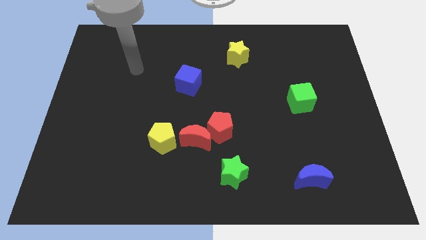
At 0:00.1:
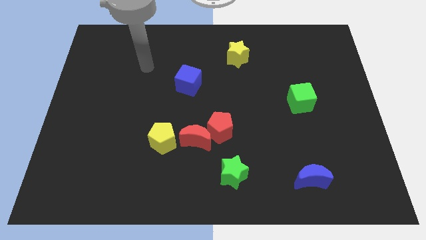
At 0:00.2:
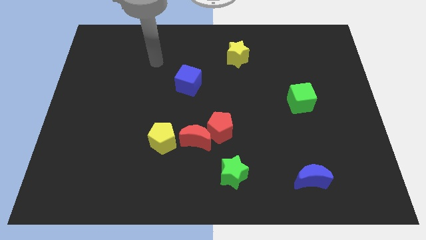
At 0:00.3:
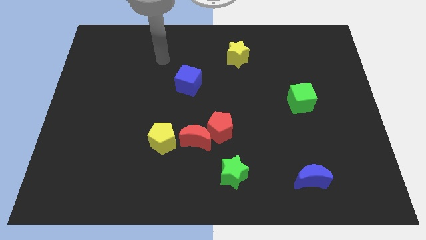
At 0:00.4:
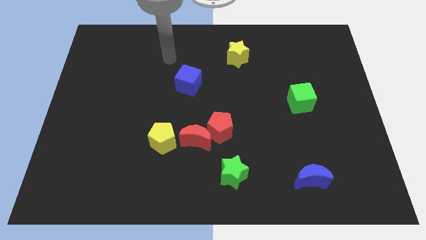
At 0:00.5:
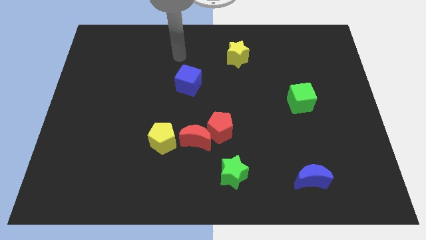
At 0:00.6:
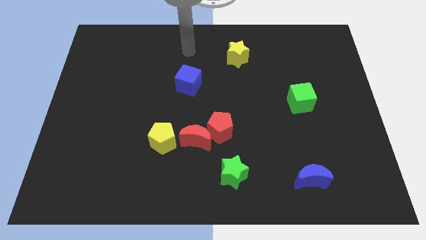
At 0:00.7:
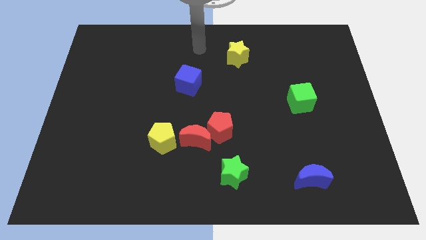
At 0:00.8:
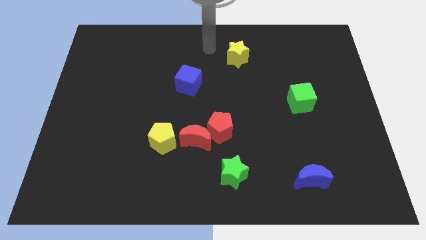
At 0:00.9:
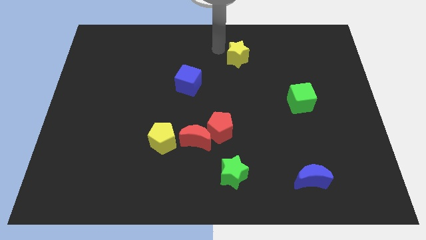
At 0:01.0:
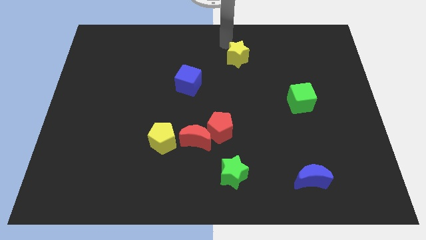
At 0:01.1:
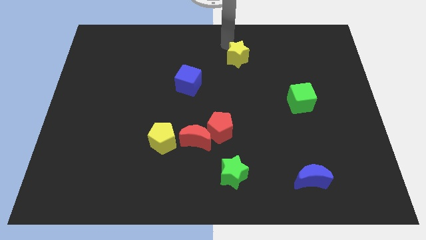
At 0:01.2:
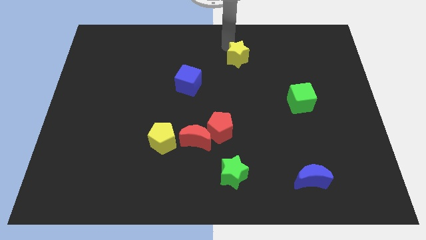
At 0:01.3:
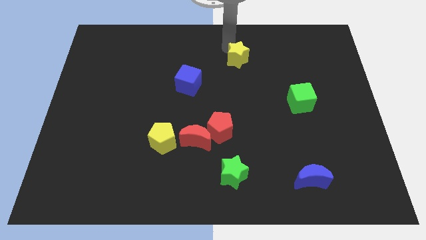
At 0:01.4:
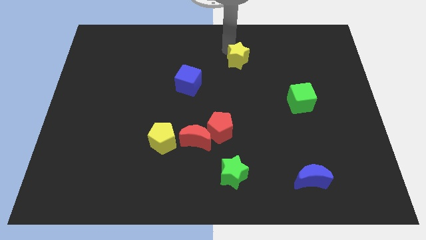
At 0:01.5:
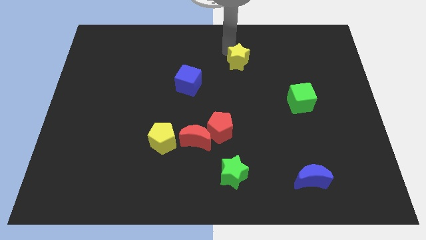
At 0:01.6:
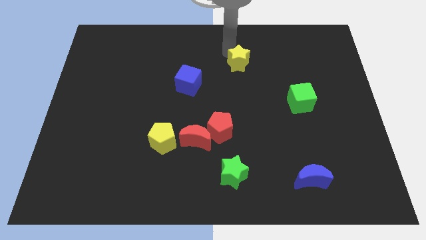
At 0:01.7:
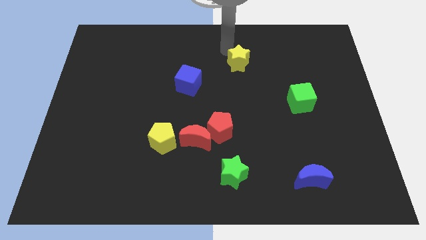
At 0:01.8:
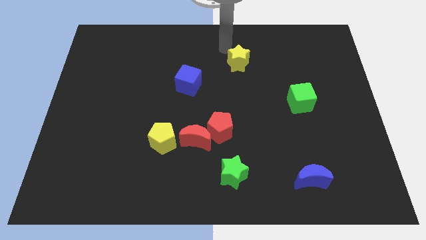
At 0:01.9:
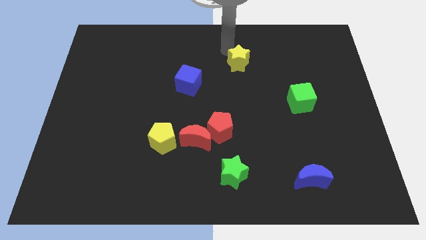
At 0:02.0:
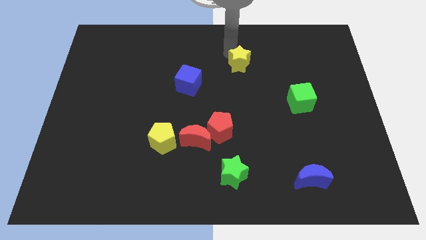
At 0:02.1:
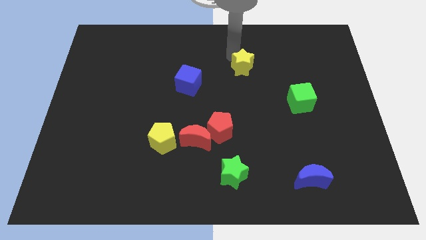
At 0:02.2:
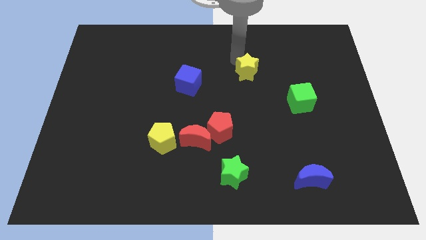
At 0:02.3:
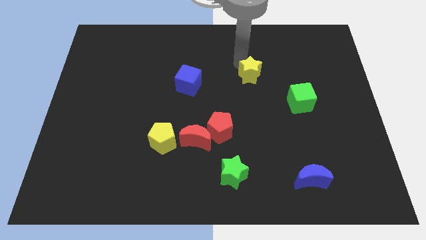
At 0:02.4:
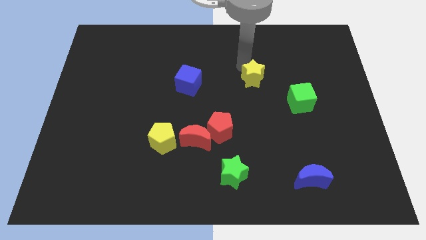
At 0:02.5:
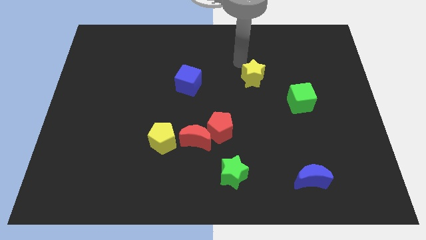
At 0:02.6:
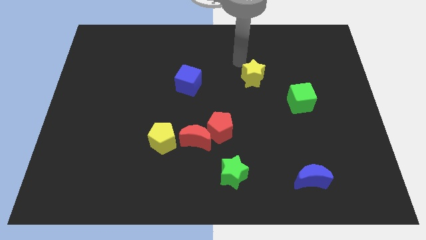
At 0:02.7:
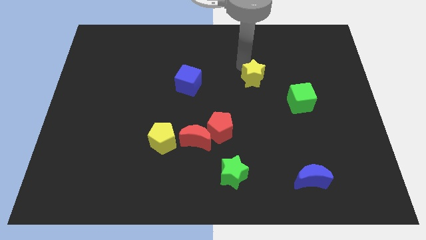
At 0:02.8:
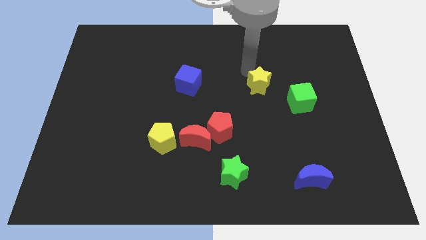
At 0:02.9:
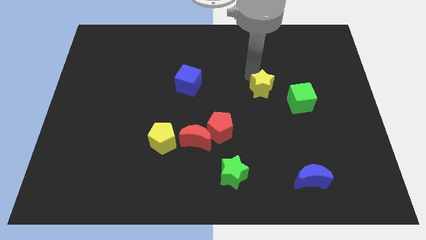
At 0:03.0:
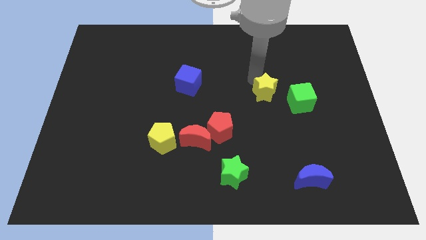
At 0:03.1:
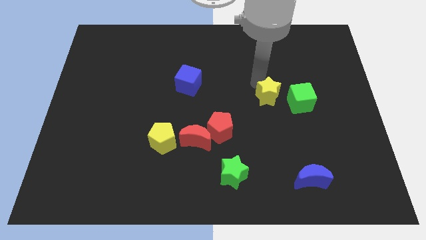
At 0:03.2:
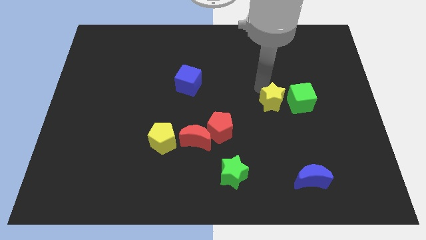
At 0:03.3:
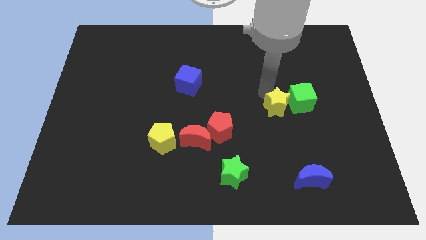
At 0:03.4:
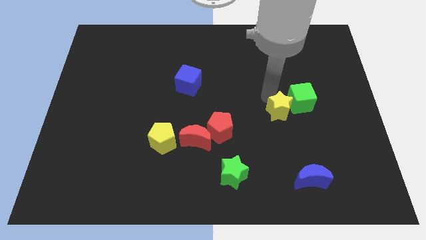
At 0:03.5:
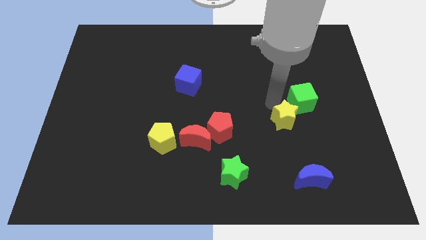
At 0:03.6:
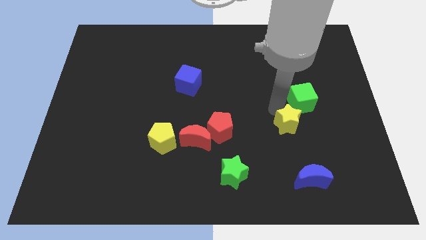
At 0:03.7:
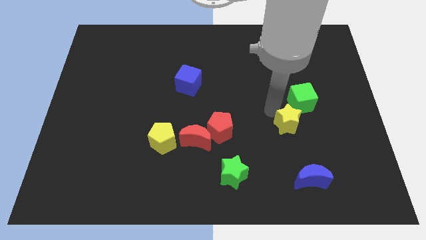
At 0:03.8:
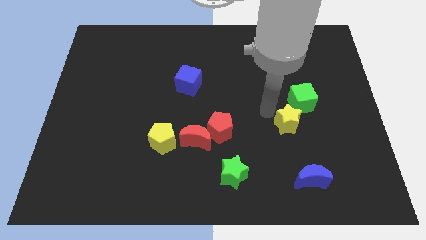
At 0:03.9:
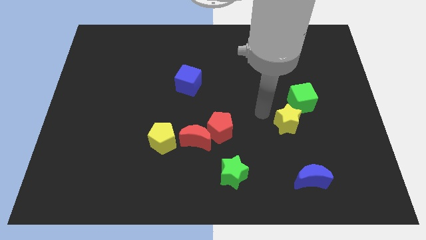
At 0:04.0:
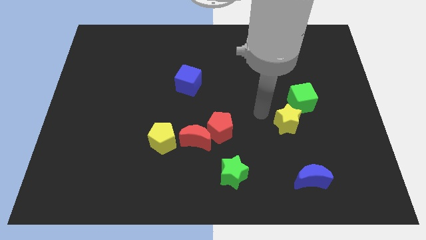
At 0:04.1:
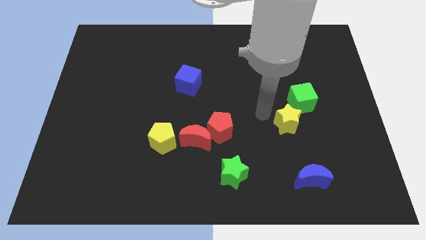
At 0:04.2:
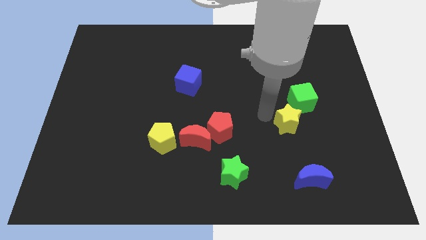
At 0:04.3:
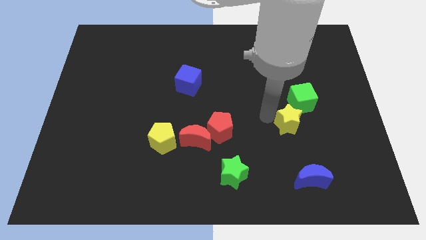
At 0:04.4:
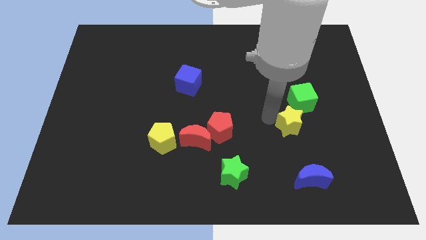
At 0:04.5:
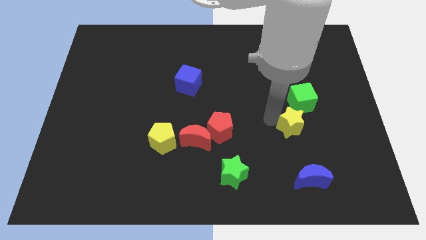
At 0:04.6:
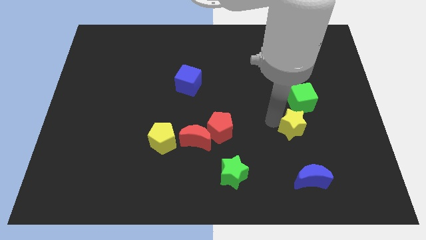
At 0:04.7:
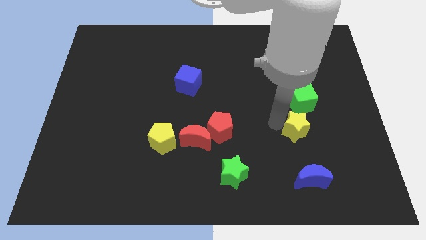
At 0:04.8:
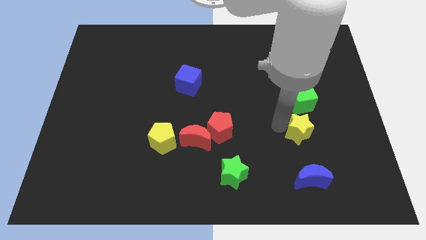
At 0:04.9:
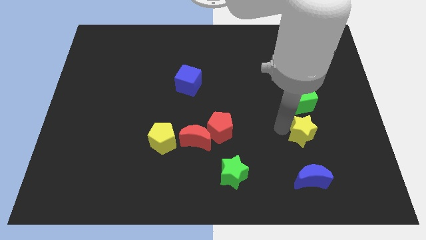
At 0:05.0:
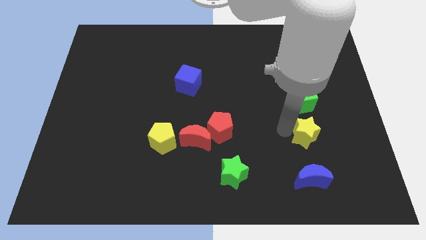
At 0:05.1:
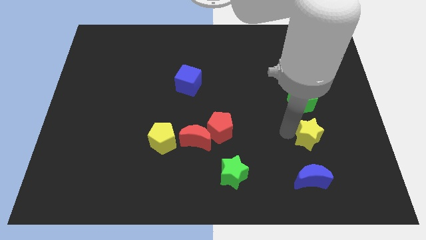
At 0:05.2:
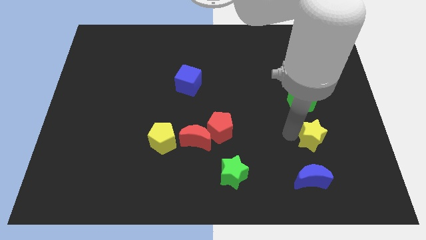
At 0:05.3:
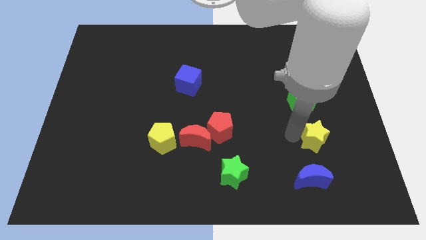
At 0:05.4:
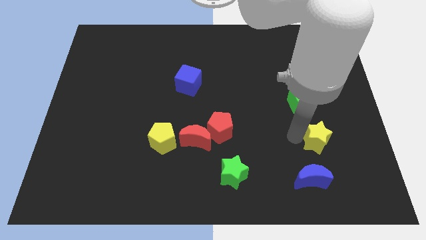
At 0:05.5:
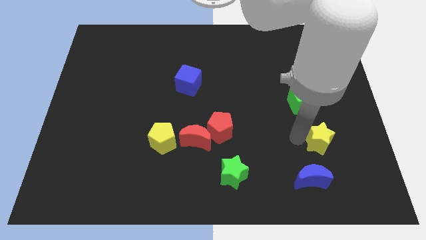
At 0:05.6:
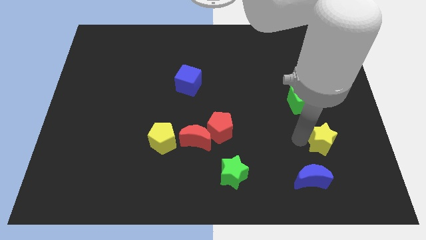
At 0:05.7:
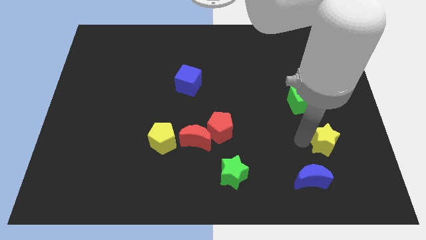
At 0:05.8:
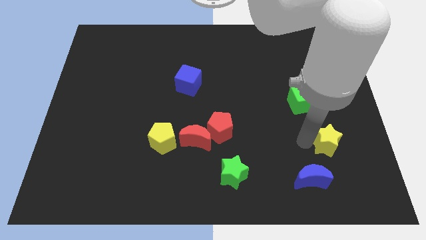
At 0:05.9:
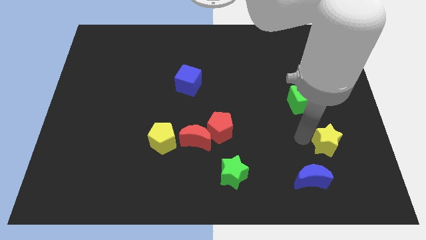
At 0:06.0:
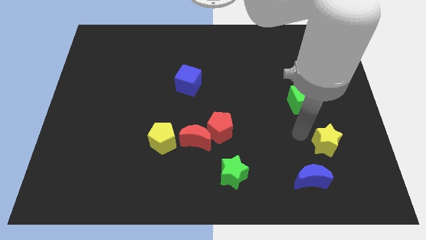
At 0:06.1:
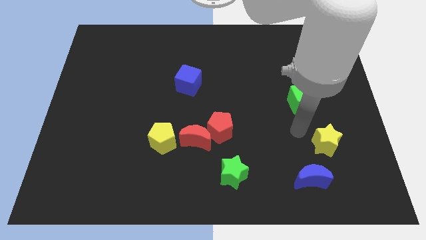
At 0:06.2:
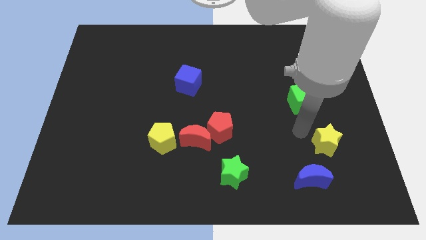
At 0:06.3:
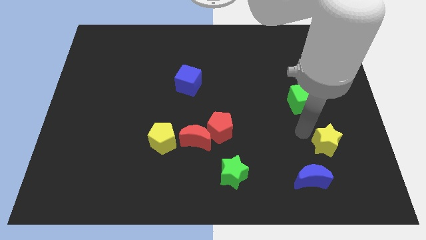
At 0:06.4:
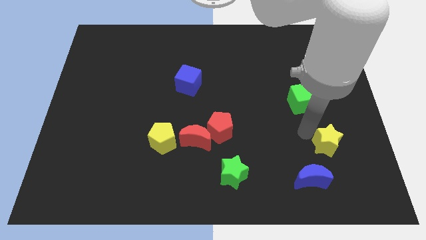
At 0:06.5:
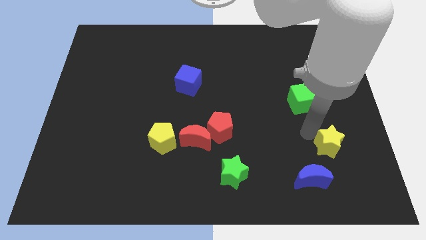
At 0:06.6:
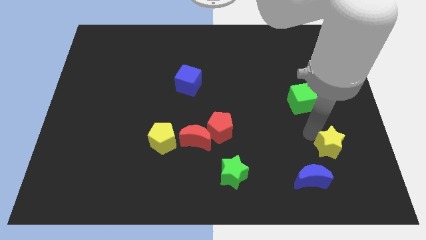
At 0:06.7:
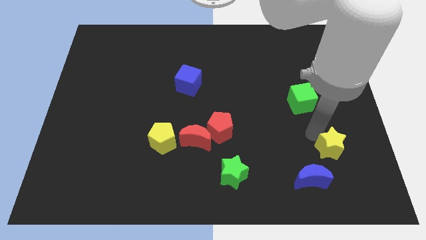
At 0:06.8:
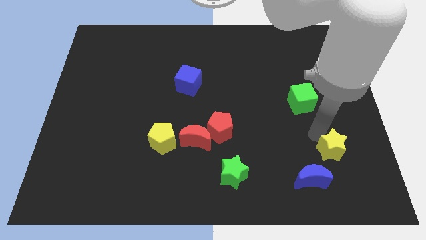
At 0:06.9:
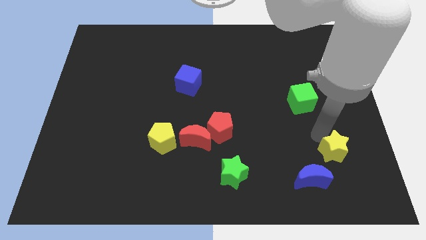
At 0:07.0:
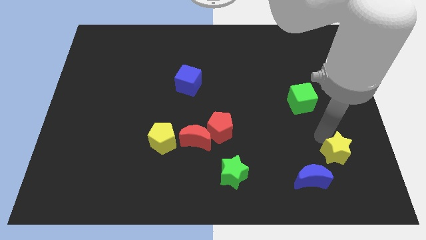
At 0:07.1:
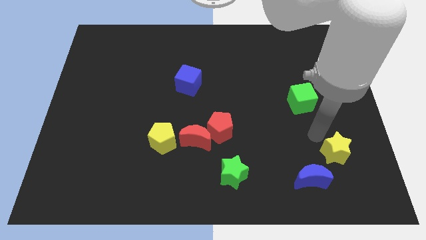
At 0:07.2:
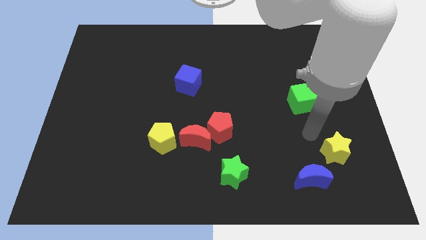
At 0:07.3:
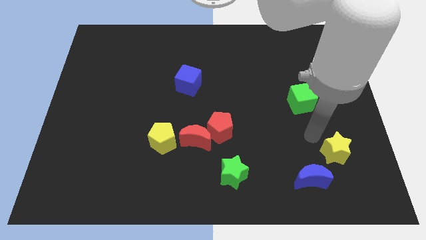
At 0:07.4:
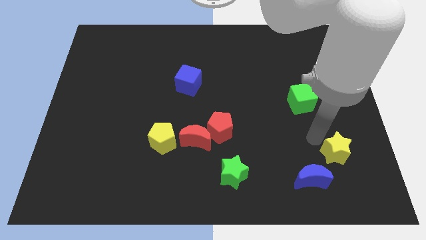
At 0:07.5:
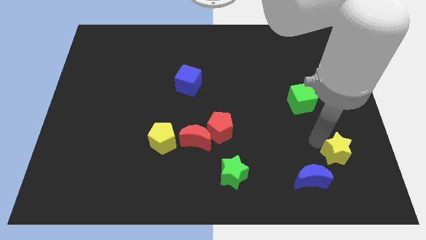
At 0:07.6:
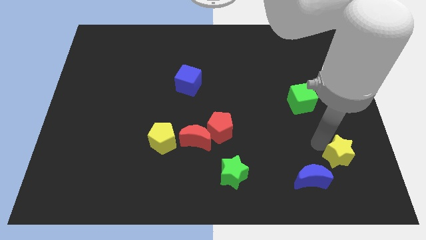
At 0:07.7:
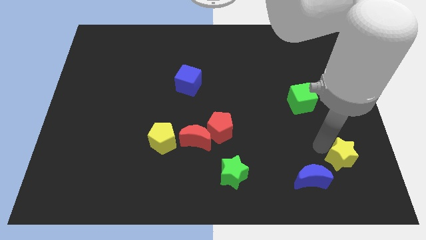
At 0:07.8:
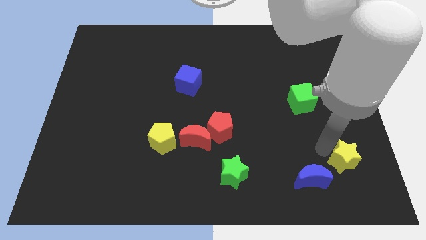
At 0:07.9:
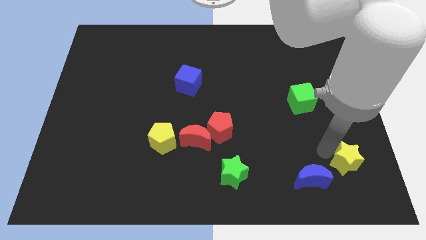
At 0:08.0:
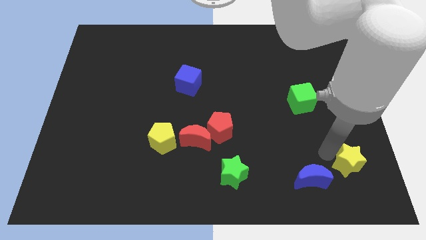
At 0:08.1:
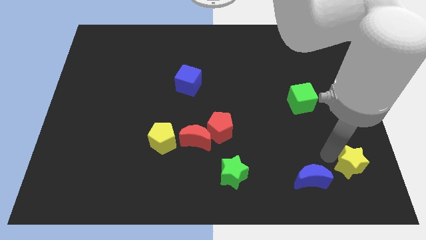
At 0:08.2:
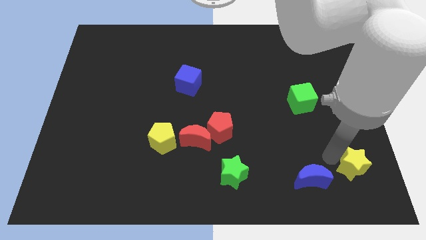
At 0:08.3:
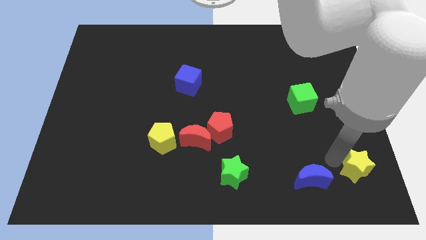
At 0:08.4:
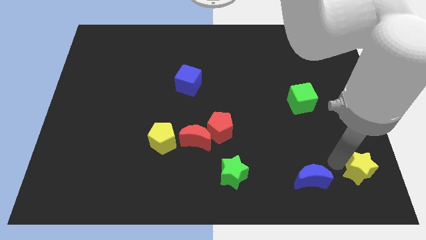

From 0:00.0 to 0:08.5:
push the yellow star to the lower right corner
